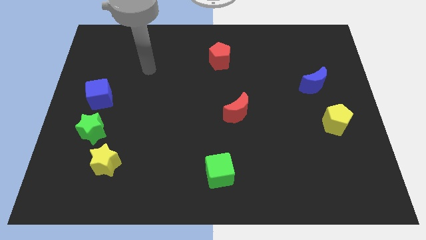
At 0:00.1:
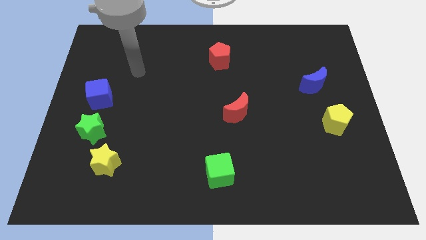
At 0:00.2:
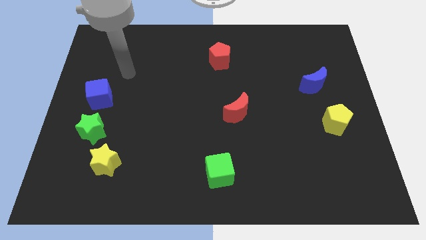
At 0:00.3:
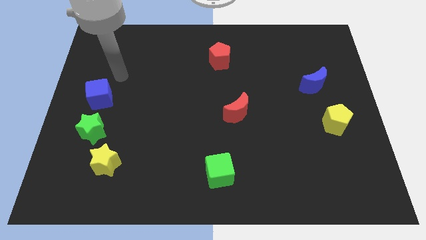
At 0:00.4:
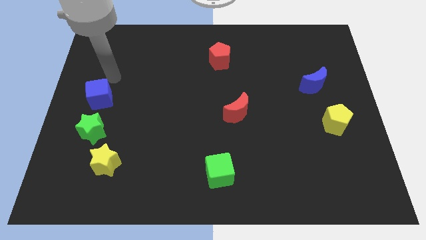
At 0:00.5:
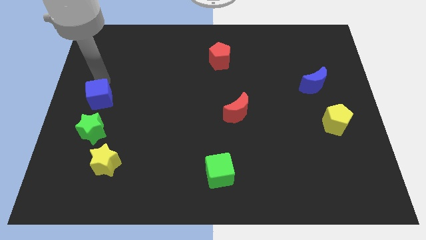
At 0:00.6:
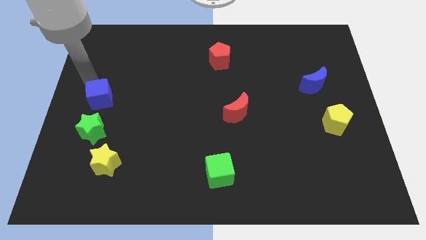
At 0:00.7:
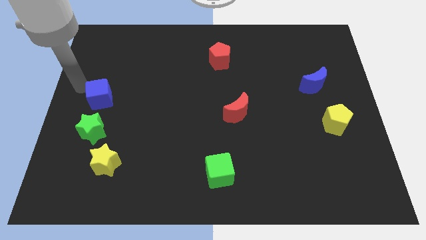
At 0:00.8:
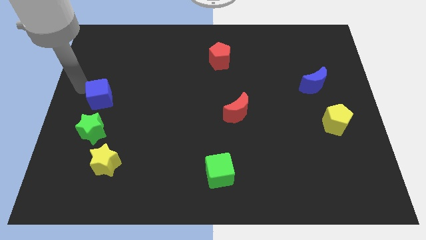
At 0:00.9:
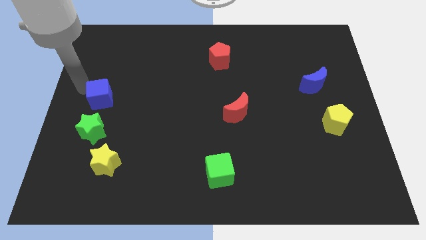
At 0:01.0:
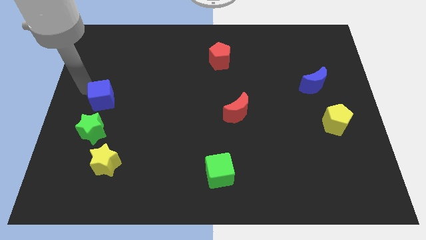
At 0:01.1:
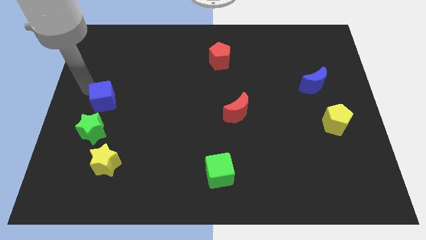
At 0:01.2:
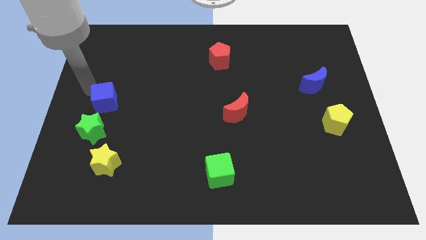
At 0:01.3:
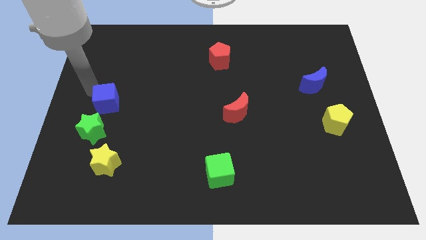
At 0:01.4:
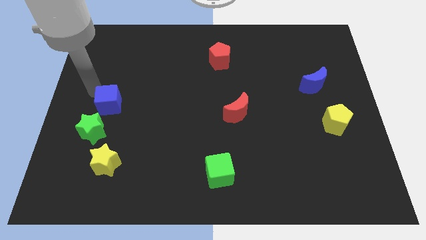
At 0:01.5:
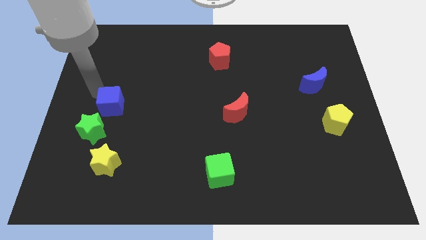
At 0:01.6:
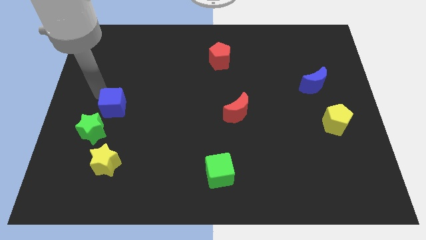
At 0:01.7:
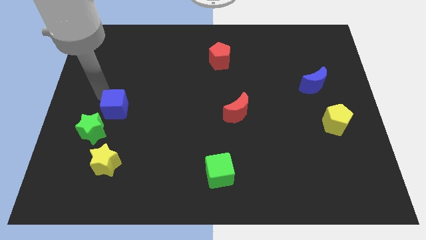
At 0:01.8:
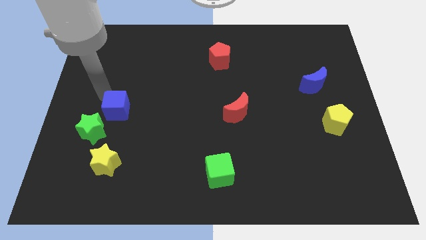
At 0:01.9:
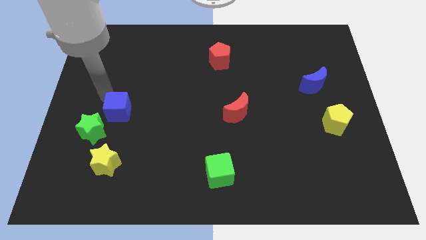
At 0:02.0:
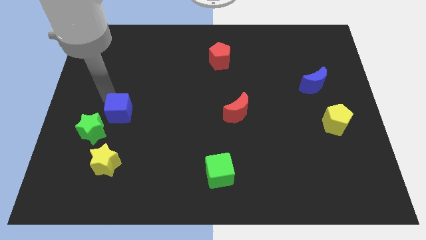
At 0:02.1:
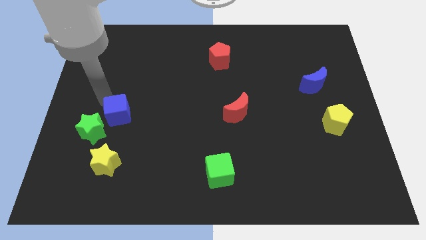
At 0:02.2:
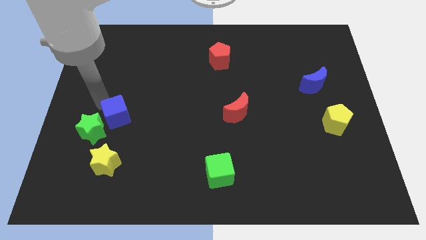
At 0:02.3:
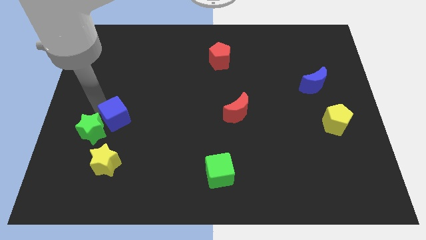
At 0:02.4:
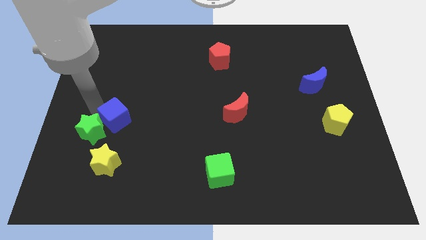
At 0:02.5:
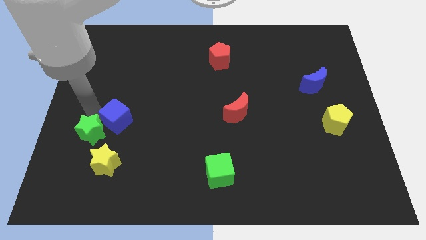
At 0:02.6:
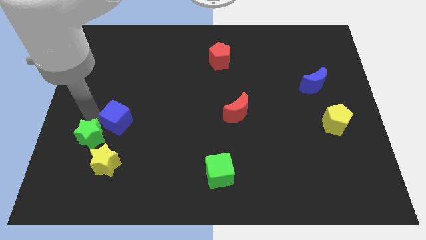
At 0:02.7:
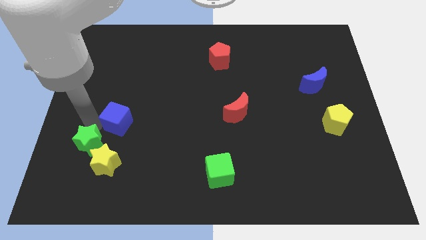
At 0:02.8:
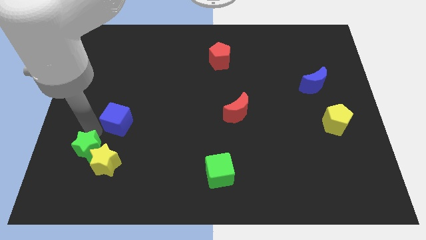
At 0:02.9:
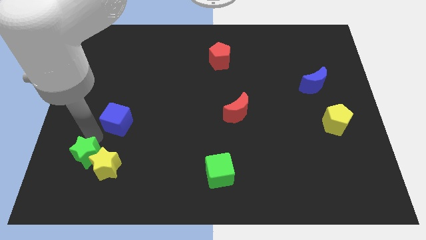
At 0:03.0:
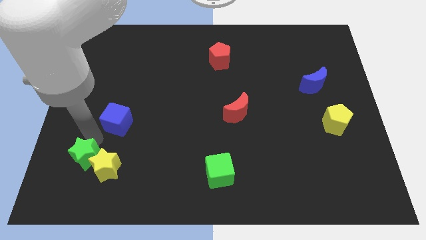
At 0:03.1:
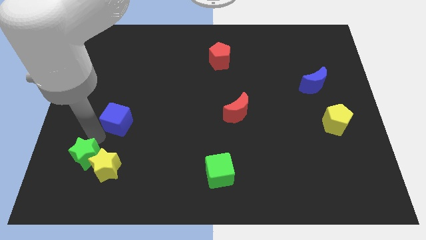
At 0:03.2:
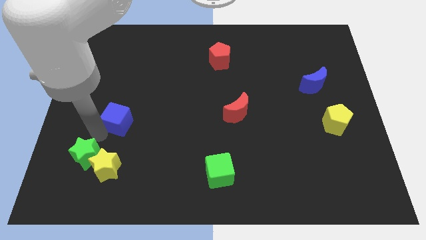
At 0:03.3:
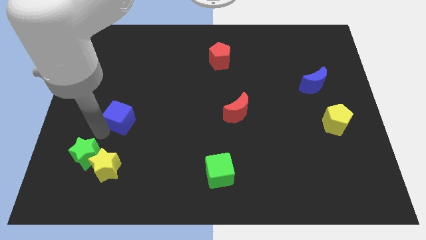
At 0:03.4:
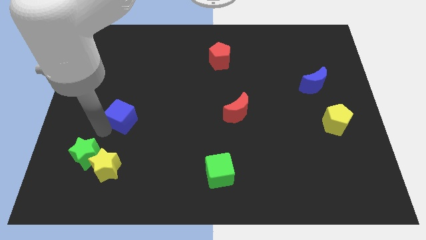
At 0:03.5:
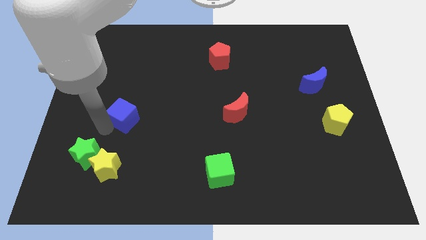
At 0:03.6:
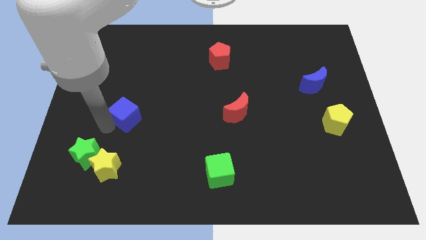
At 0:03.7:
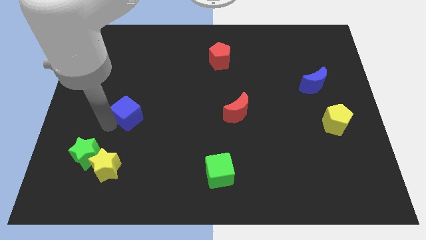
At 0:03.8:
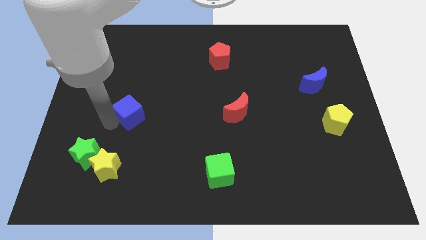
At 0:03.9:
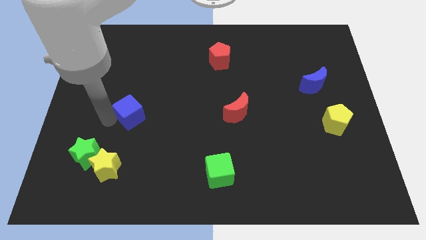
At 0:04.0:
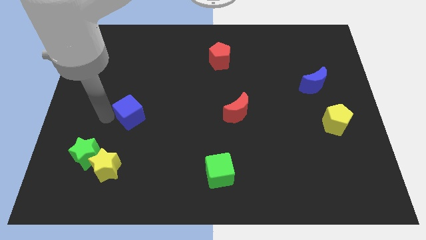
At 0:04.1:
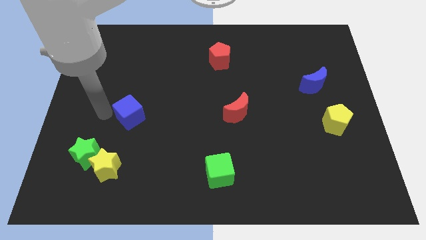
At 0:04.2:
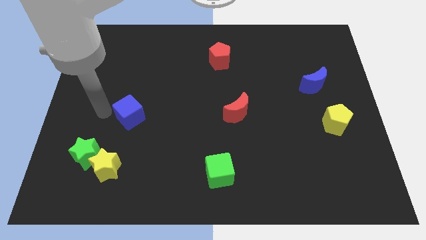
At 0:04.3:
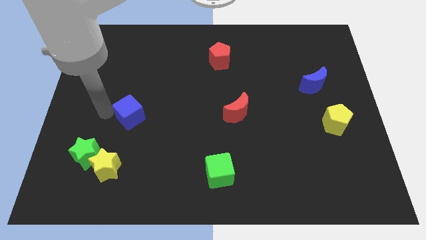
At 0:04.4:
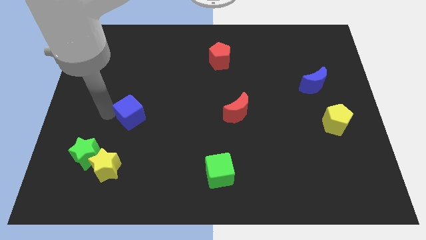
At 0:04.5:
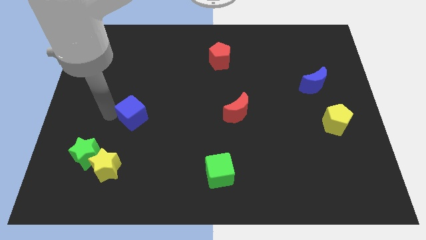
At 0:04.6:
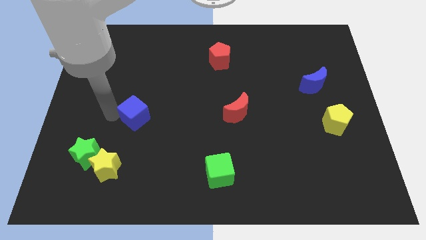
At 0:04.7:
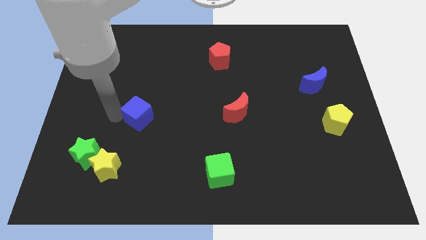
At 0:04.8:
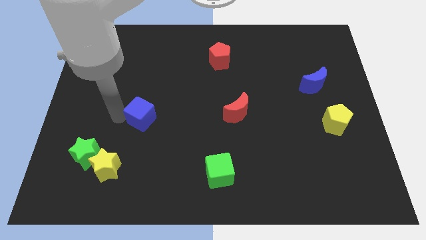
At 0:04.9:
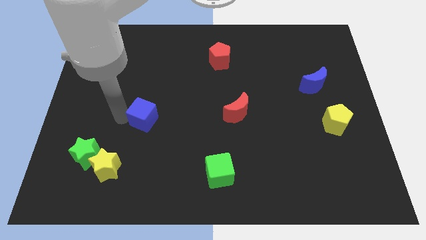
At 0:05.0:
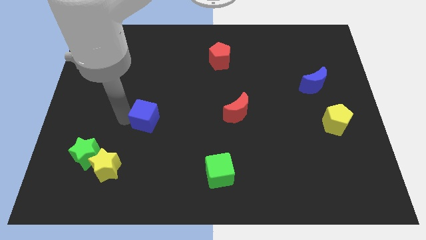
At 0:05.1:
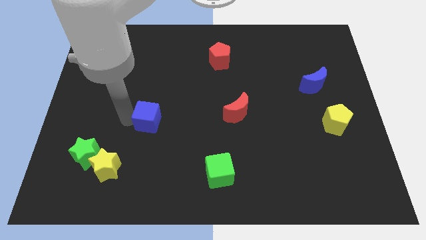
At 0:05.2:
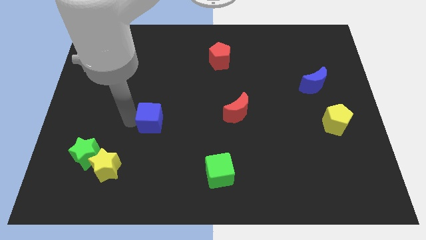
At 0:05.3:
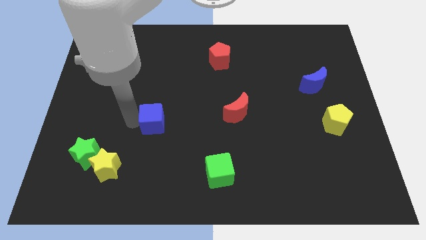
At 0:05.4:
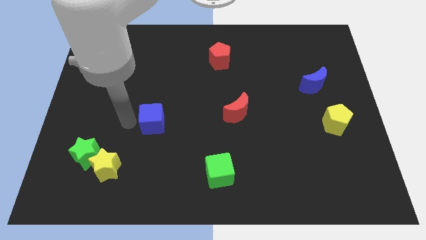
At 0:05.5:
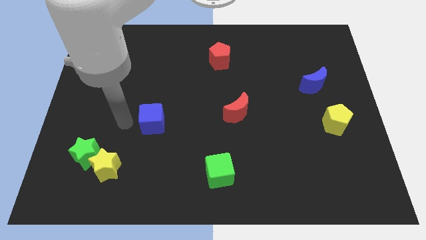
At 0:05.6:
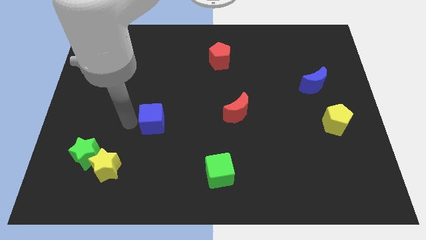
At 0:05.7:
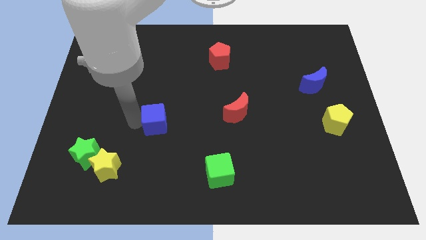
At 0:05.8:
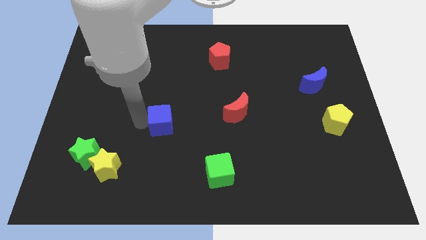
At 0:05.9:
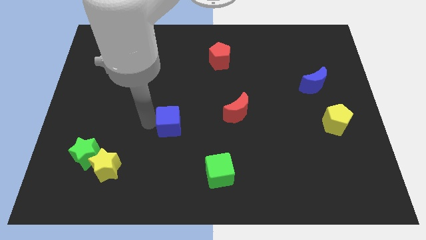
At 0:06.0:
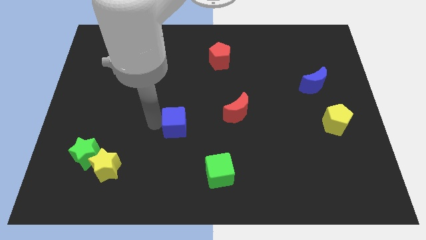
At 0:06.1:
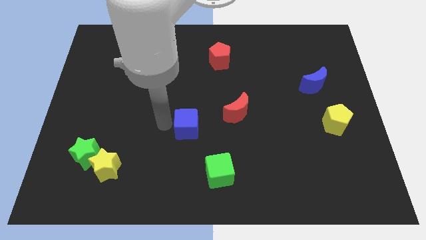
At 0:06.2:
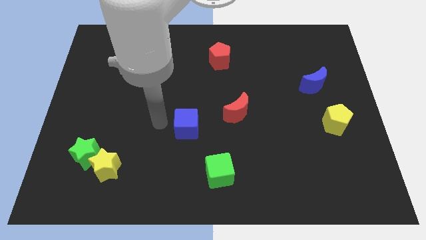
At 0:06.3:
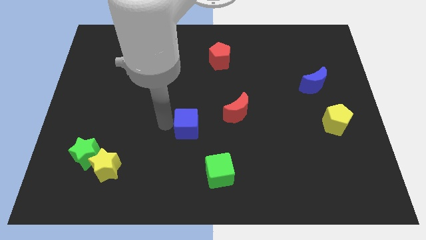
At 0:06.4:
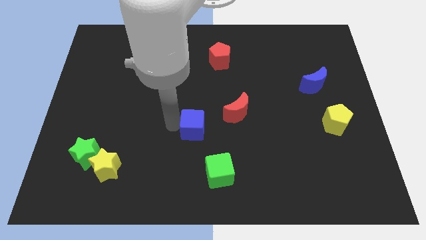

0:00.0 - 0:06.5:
push the blue cube to the bottom left side of the red moon
